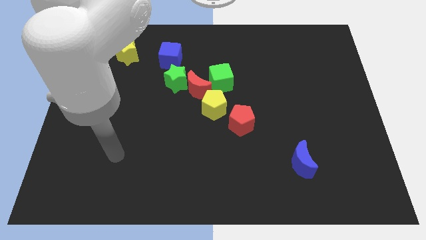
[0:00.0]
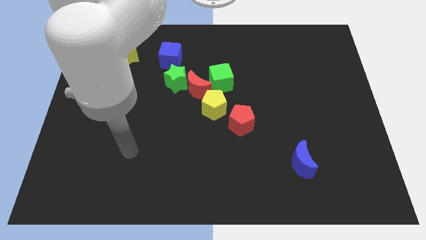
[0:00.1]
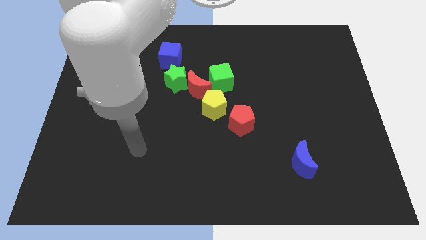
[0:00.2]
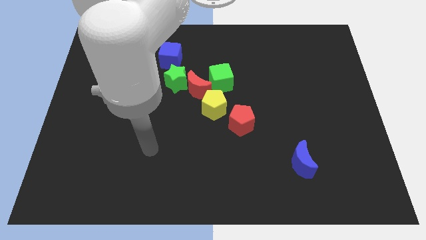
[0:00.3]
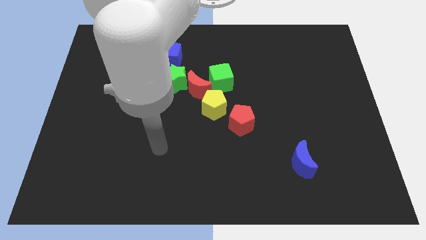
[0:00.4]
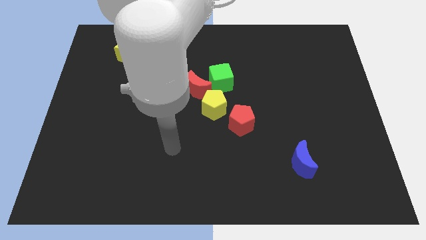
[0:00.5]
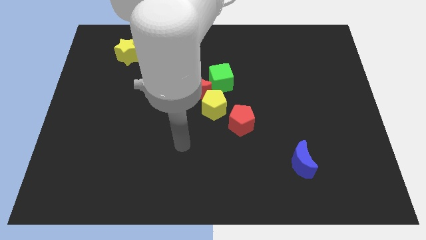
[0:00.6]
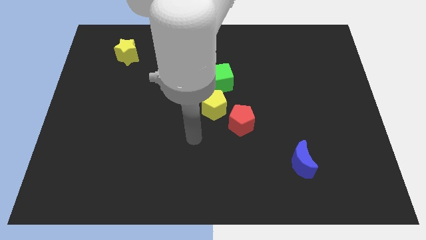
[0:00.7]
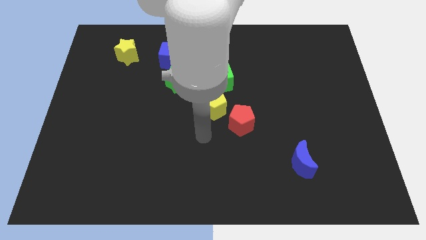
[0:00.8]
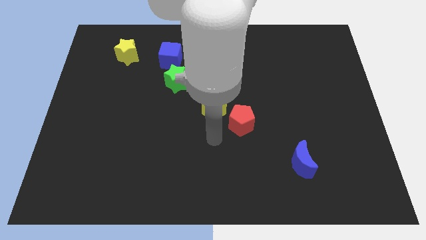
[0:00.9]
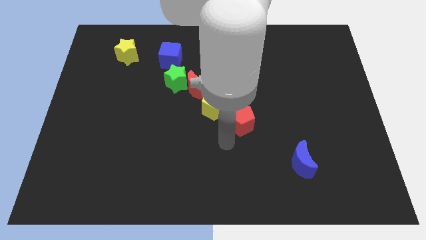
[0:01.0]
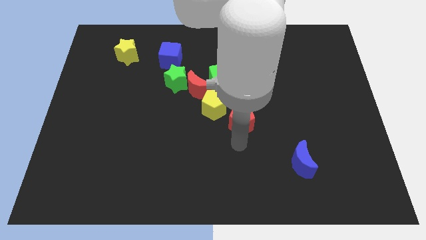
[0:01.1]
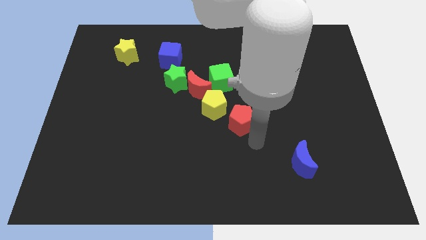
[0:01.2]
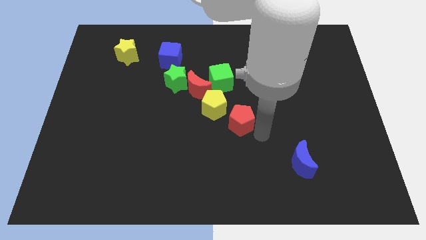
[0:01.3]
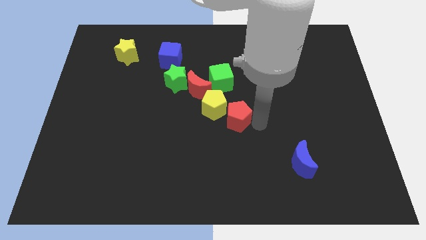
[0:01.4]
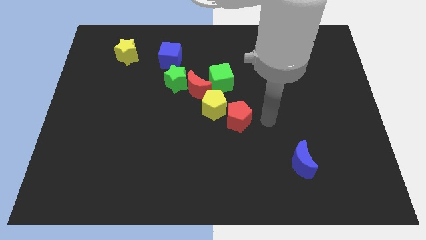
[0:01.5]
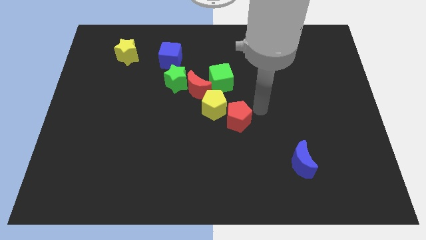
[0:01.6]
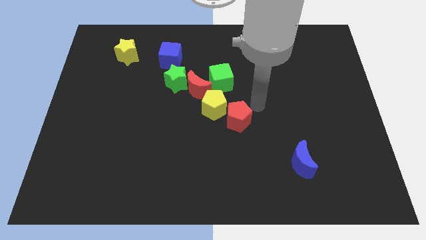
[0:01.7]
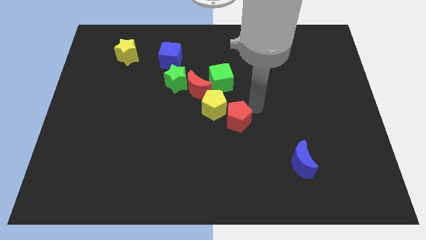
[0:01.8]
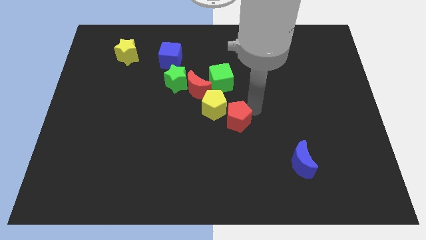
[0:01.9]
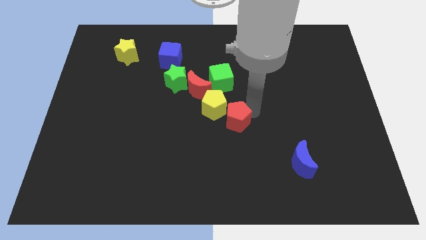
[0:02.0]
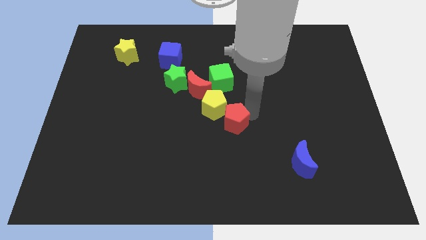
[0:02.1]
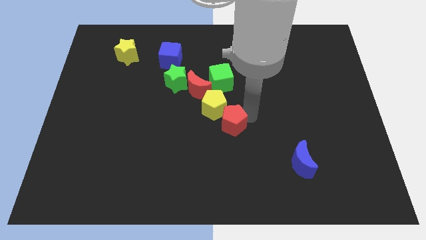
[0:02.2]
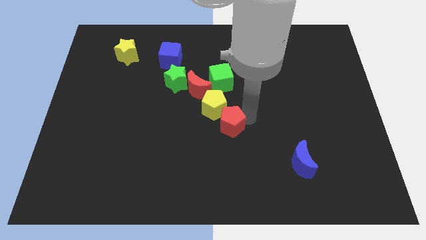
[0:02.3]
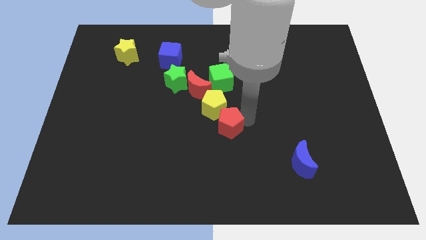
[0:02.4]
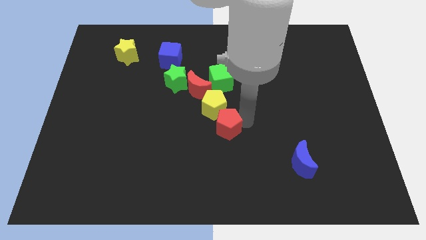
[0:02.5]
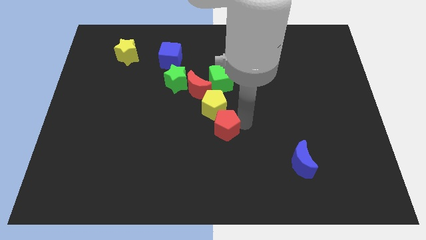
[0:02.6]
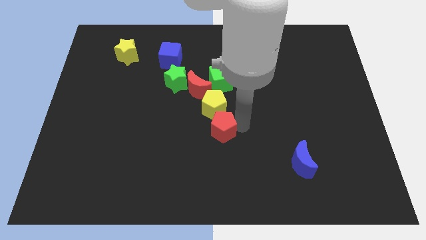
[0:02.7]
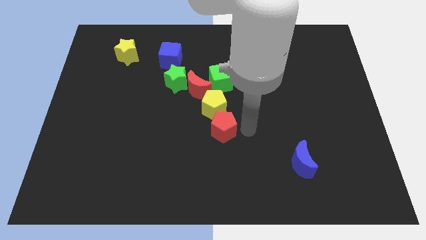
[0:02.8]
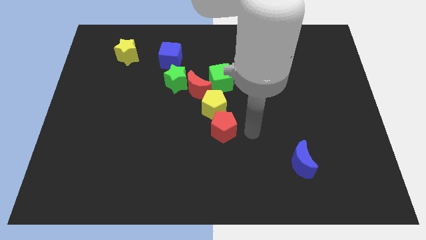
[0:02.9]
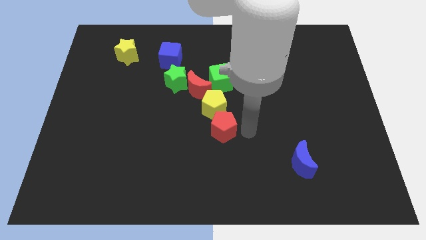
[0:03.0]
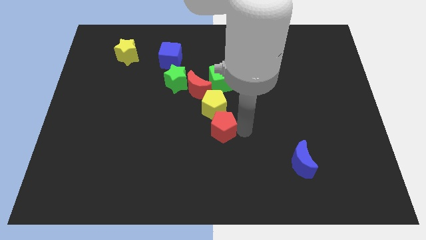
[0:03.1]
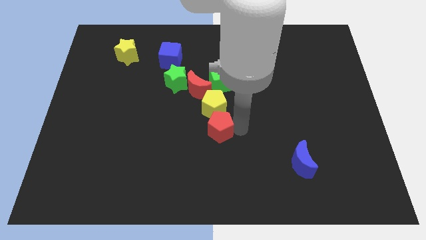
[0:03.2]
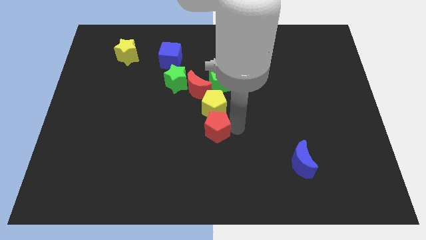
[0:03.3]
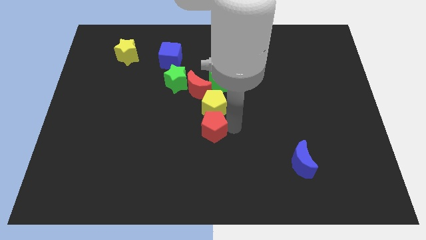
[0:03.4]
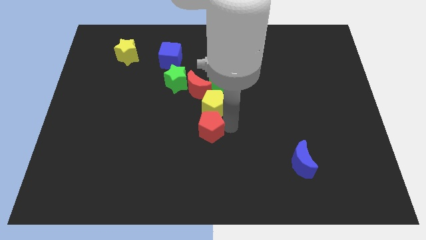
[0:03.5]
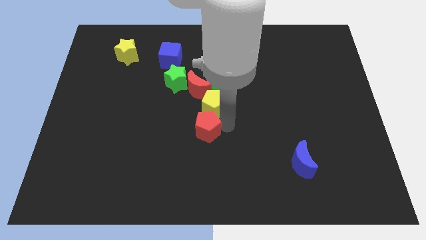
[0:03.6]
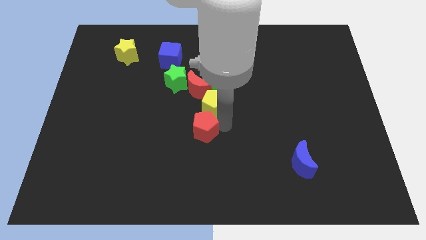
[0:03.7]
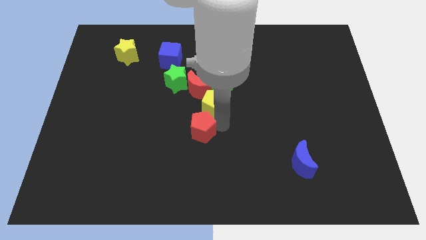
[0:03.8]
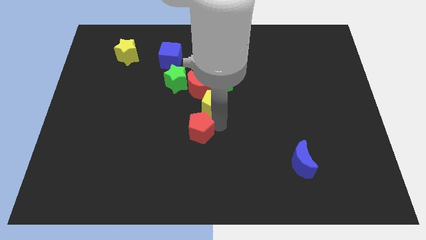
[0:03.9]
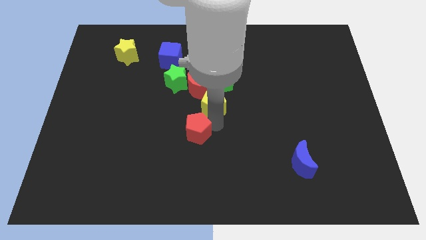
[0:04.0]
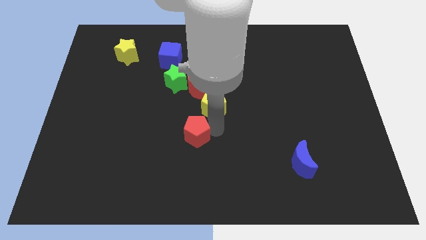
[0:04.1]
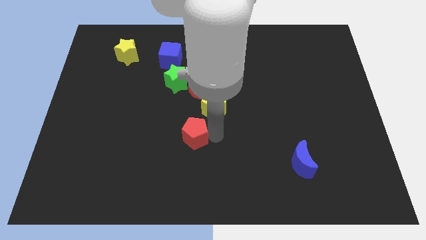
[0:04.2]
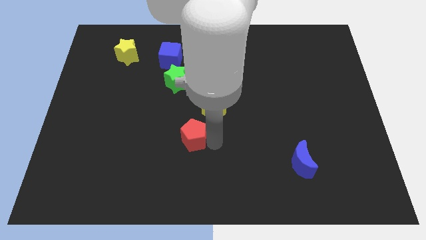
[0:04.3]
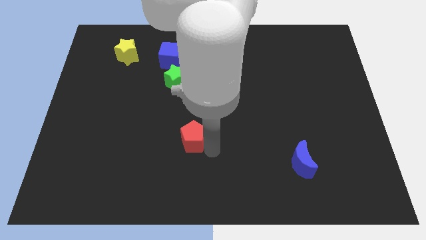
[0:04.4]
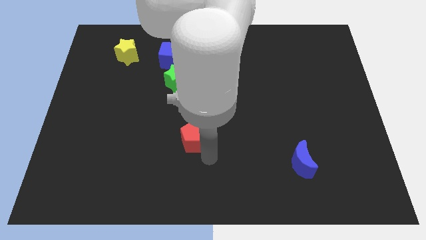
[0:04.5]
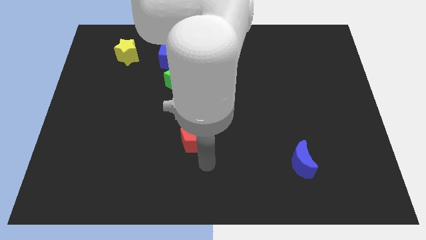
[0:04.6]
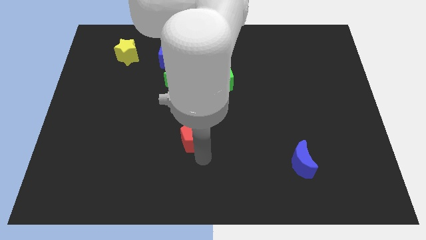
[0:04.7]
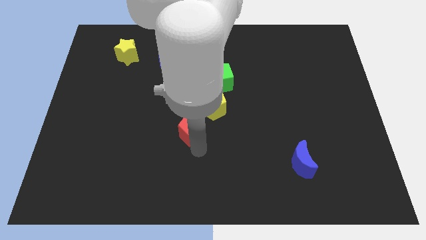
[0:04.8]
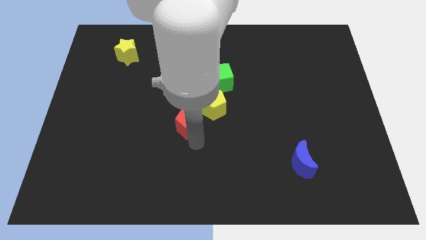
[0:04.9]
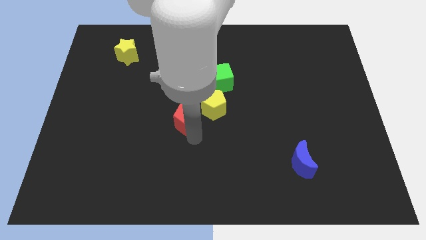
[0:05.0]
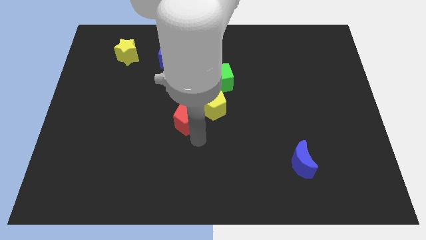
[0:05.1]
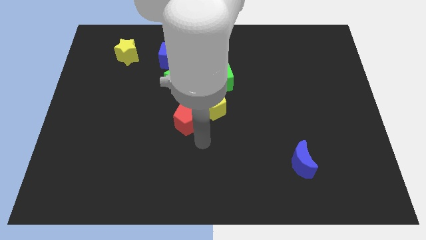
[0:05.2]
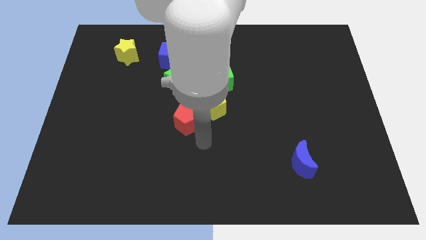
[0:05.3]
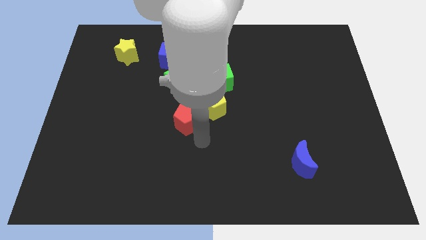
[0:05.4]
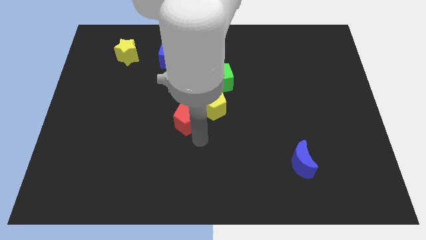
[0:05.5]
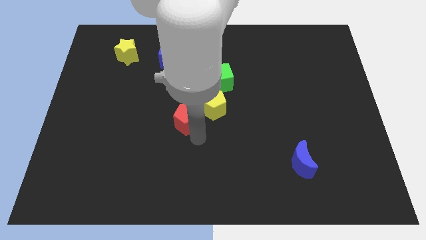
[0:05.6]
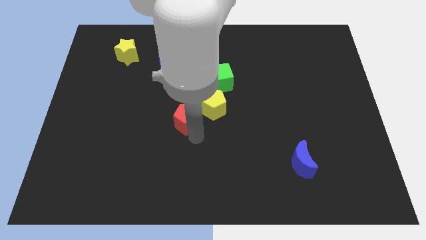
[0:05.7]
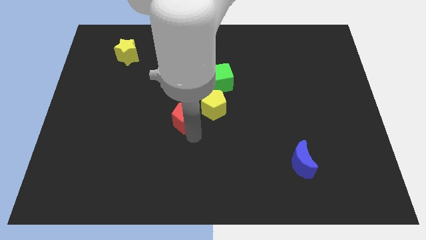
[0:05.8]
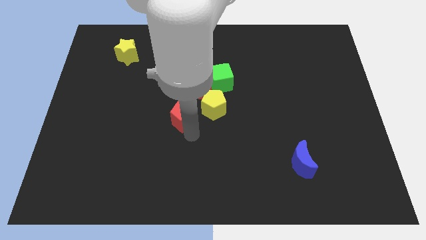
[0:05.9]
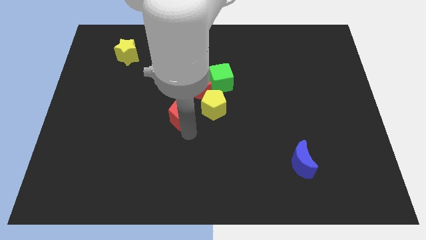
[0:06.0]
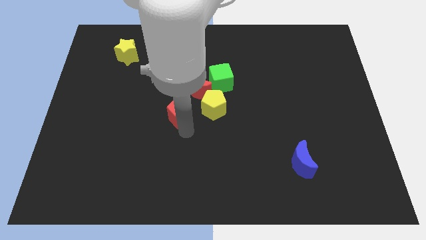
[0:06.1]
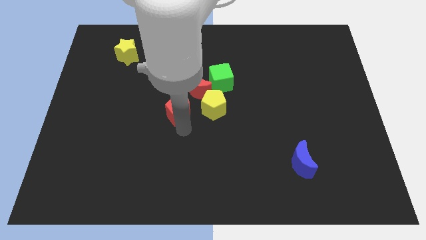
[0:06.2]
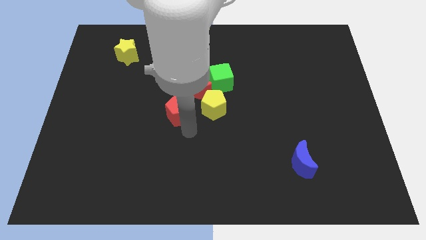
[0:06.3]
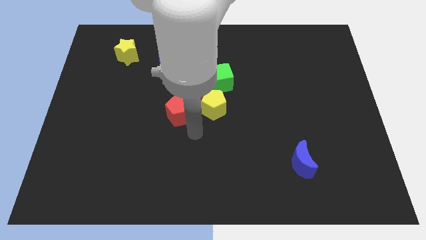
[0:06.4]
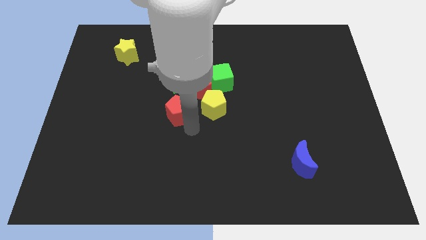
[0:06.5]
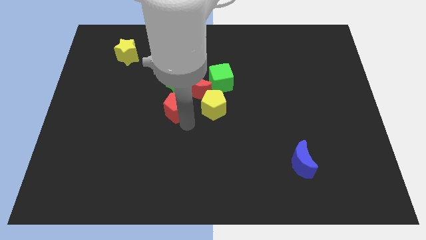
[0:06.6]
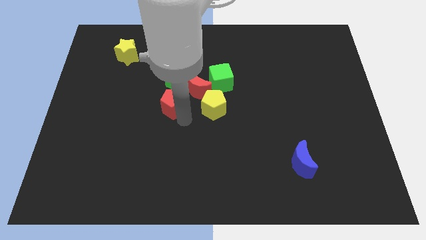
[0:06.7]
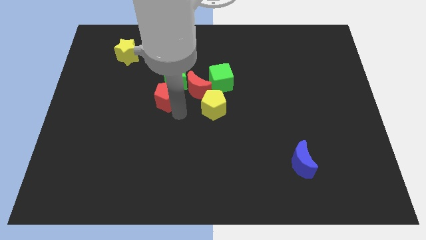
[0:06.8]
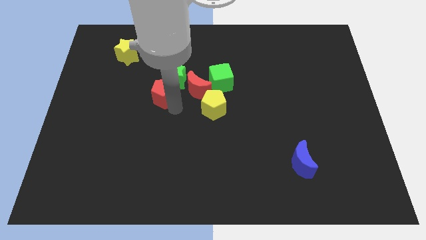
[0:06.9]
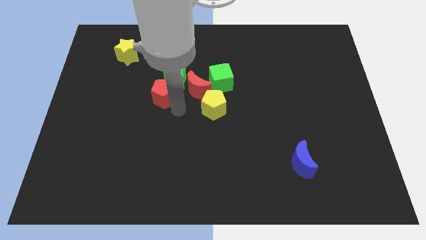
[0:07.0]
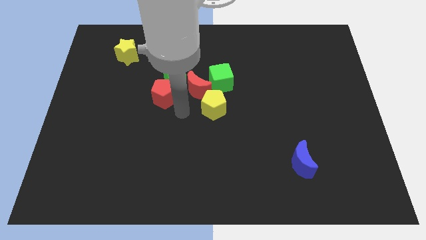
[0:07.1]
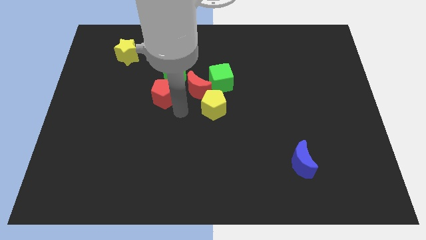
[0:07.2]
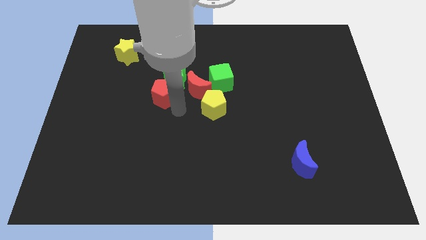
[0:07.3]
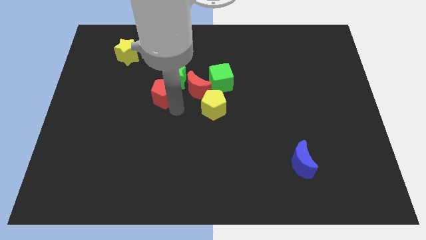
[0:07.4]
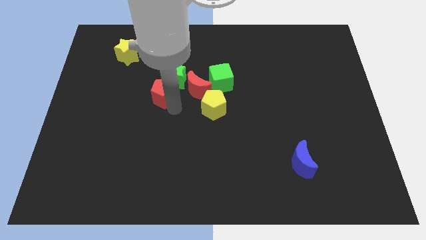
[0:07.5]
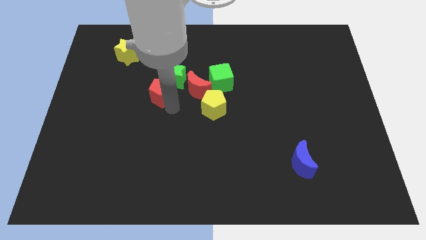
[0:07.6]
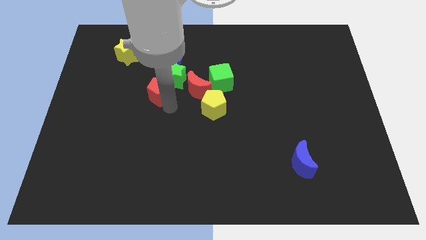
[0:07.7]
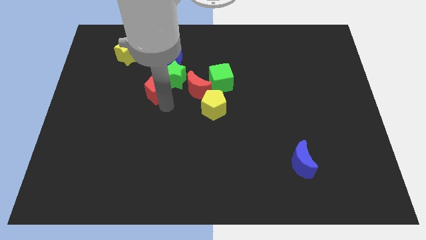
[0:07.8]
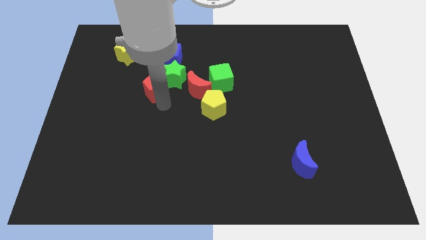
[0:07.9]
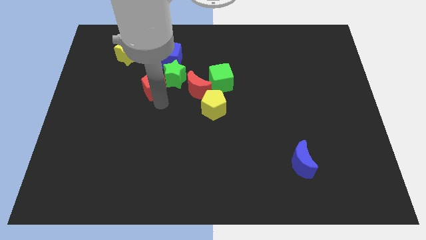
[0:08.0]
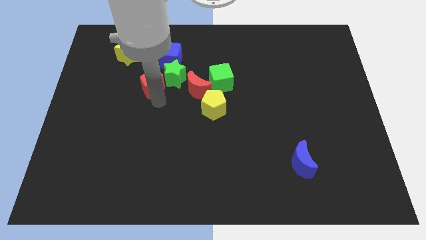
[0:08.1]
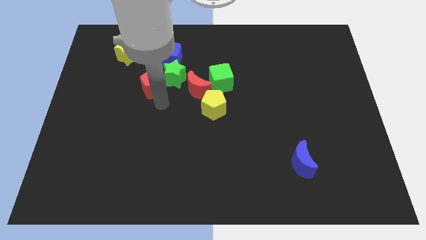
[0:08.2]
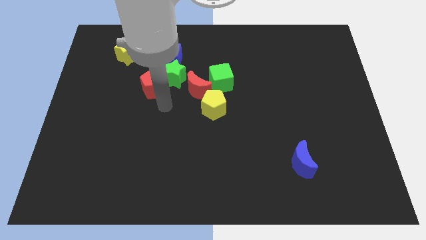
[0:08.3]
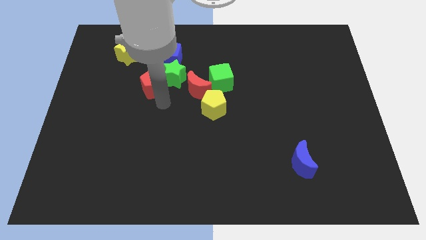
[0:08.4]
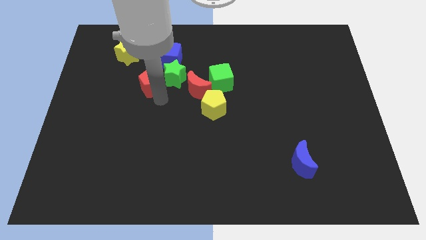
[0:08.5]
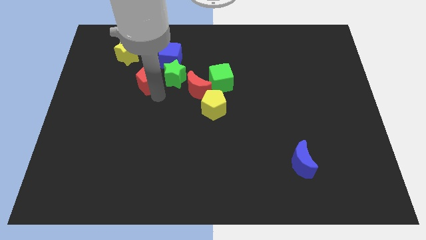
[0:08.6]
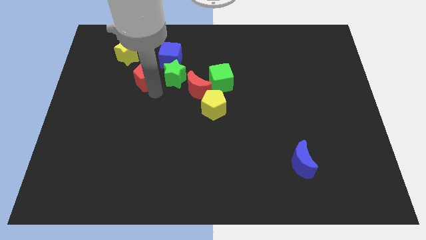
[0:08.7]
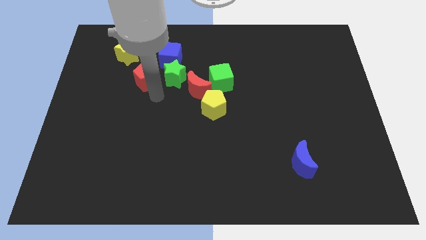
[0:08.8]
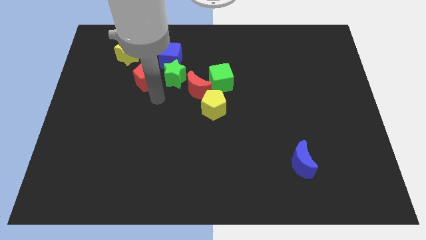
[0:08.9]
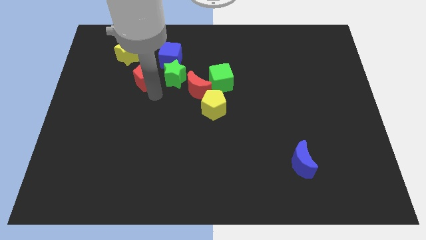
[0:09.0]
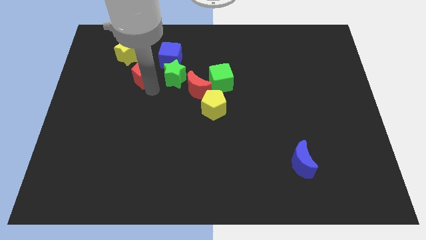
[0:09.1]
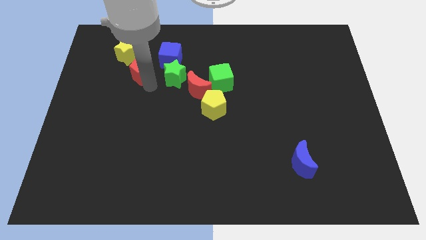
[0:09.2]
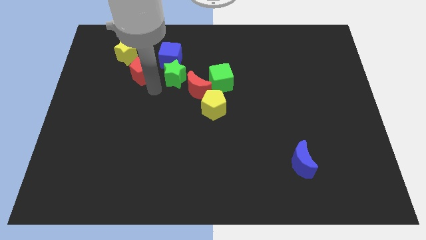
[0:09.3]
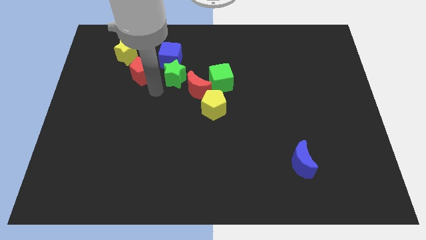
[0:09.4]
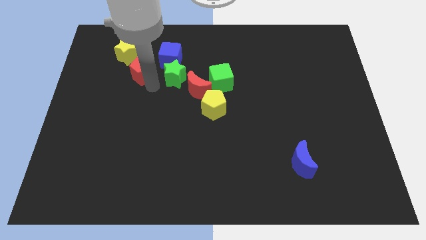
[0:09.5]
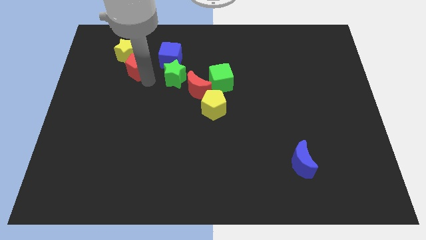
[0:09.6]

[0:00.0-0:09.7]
move the red pentagon close to the yellow star
